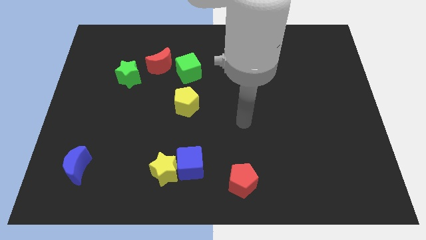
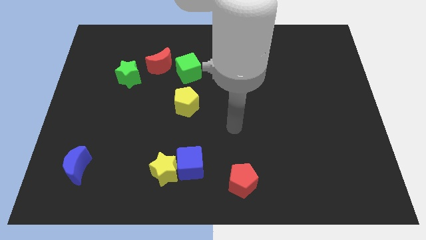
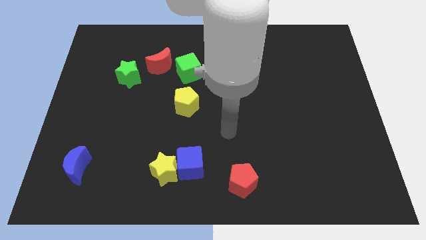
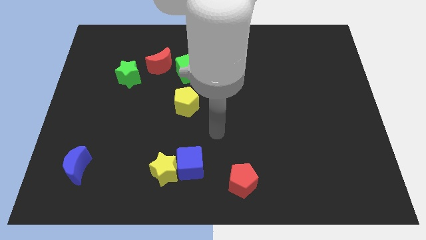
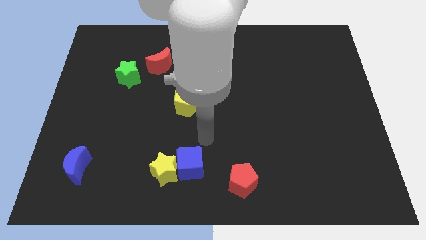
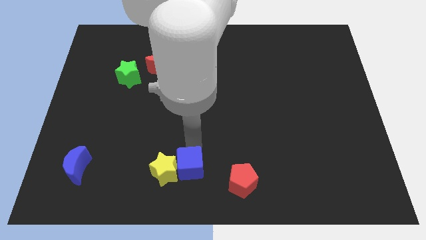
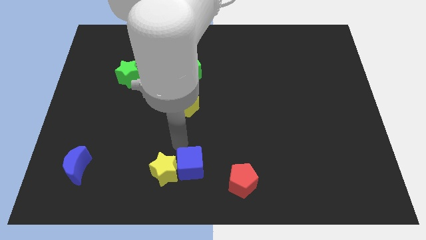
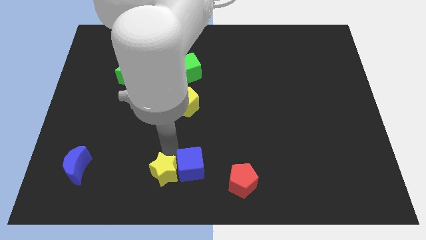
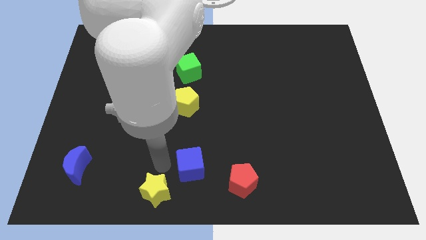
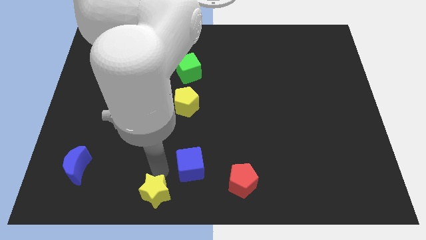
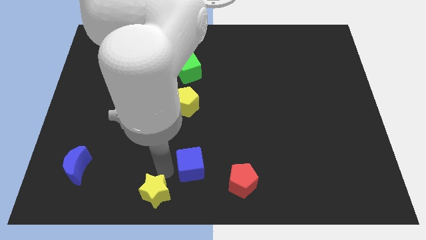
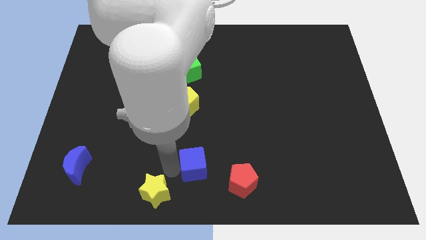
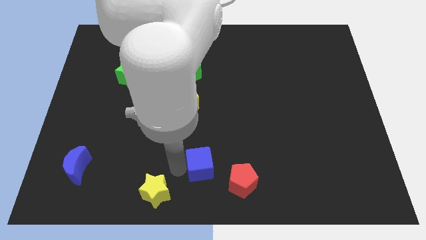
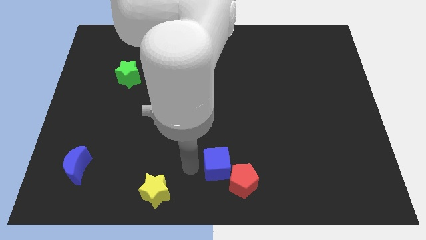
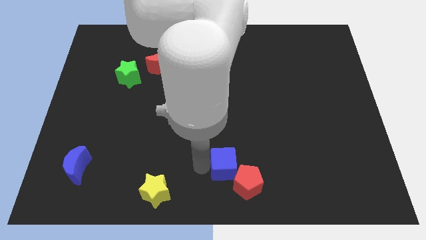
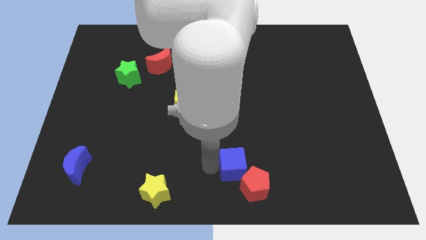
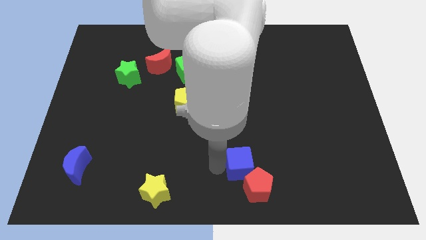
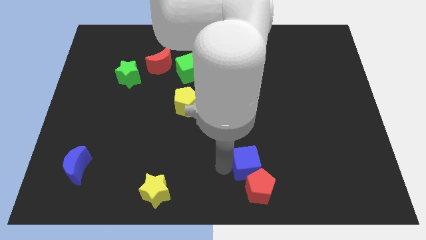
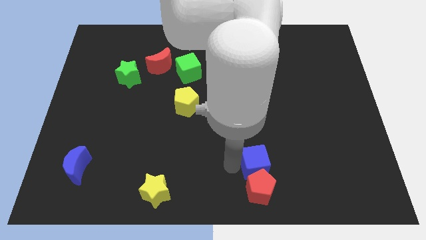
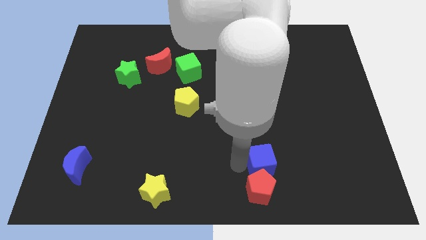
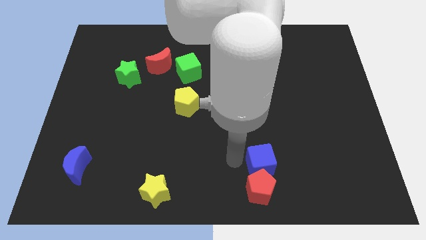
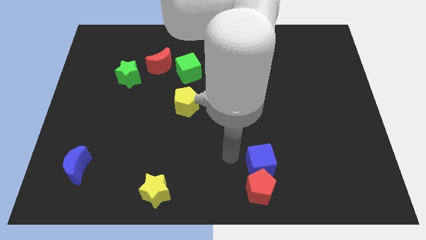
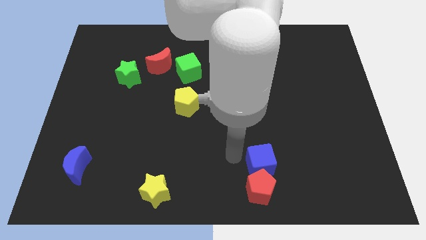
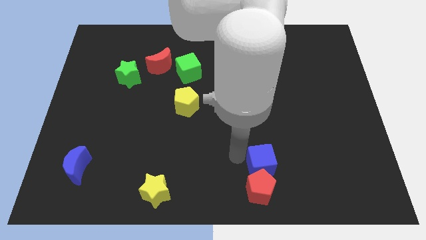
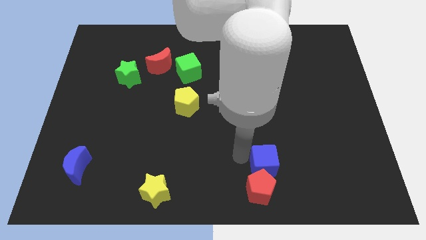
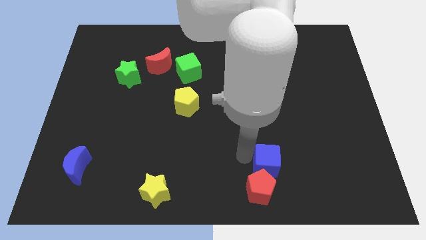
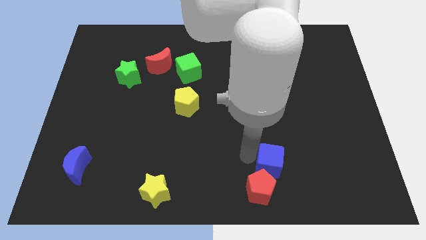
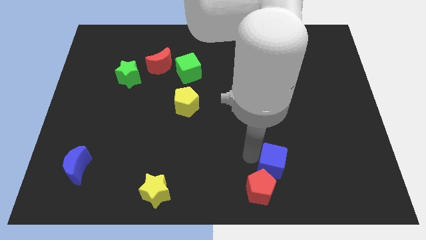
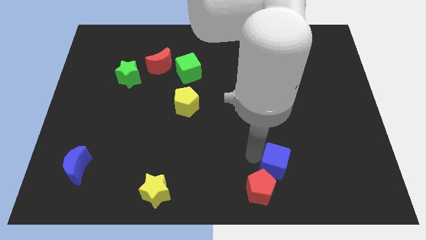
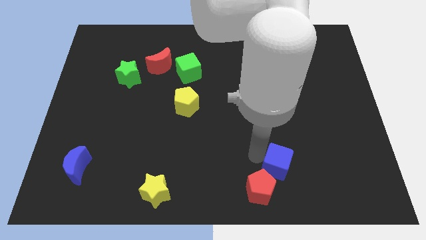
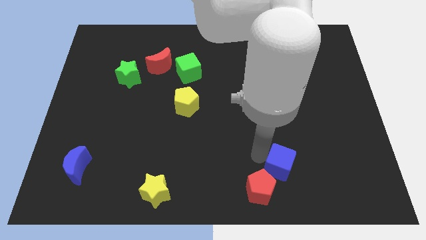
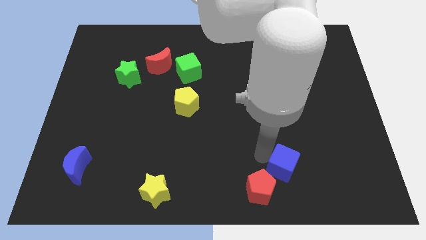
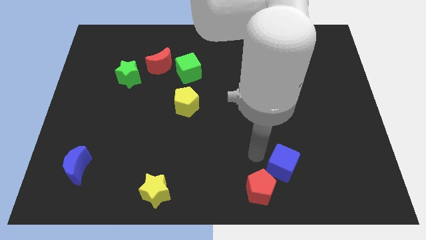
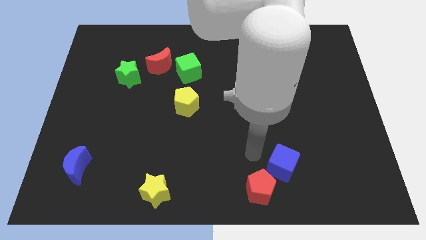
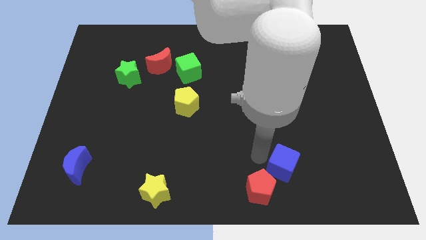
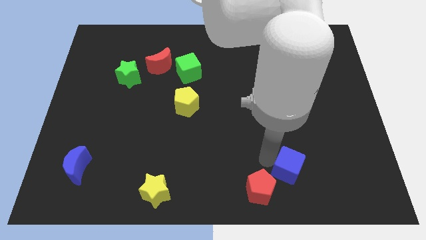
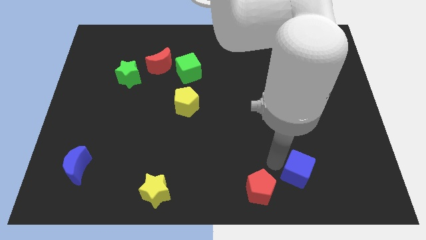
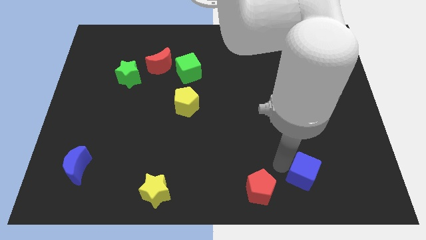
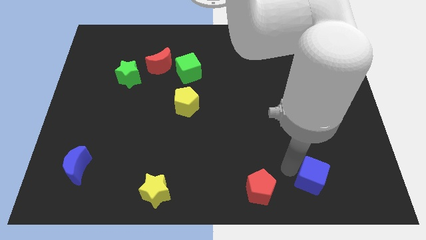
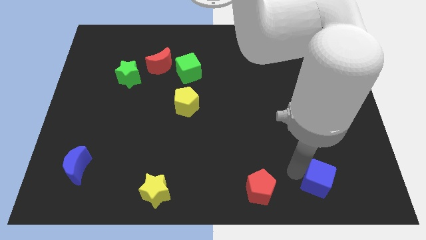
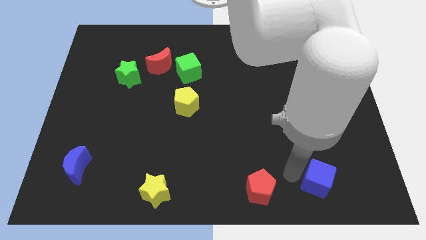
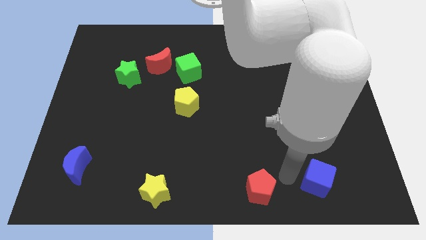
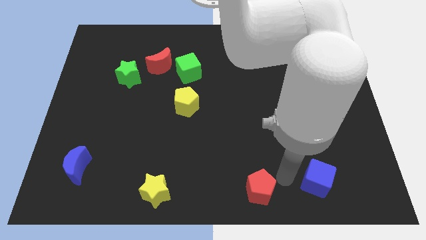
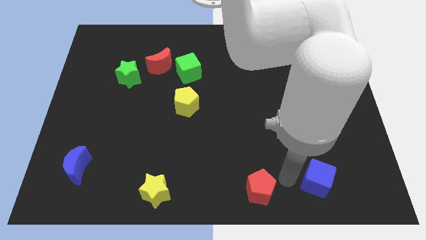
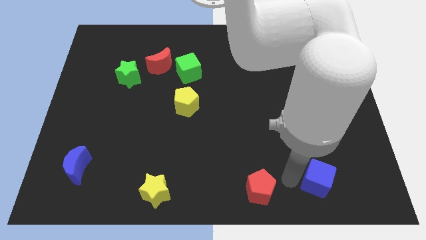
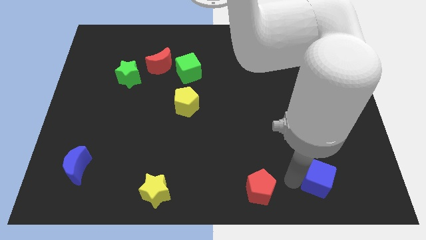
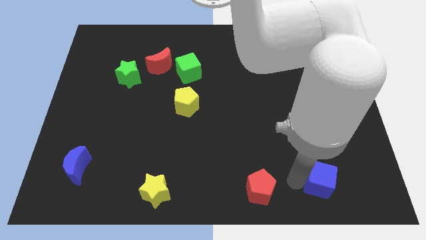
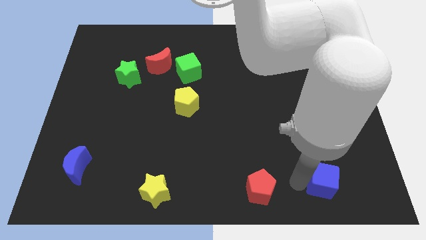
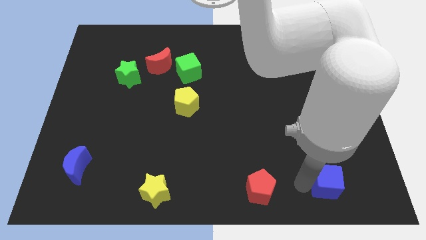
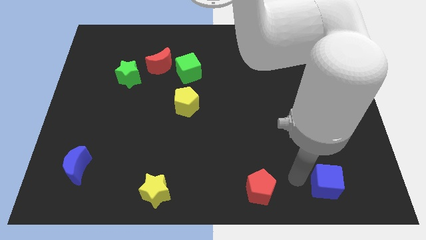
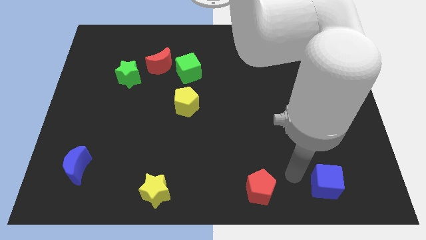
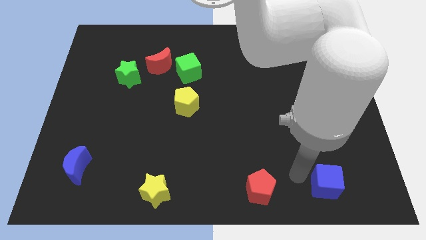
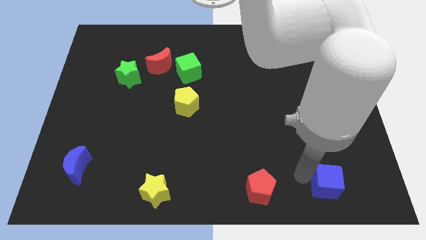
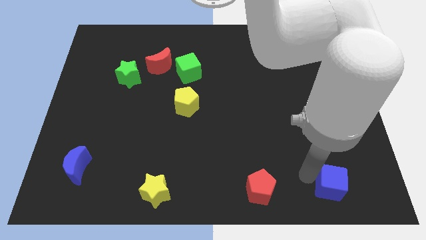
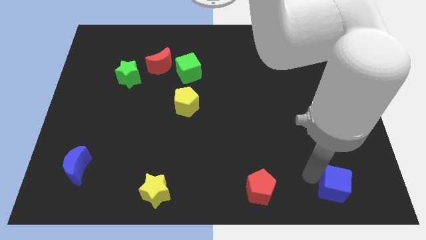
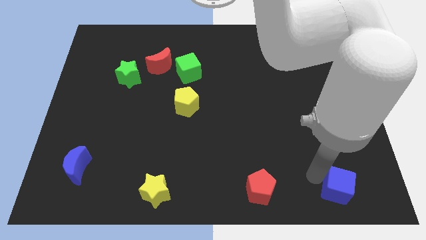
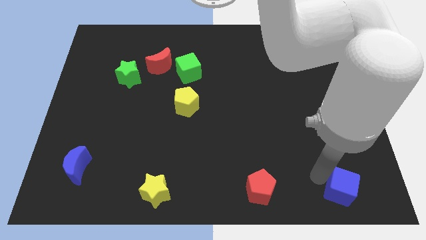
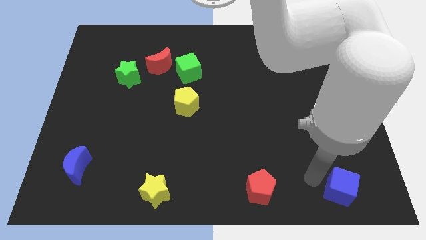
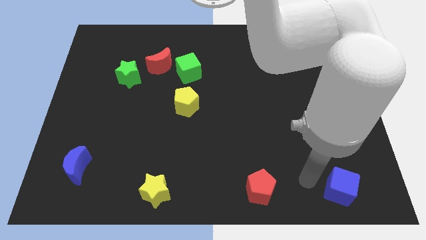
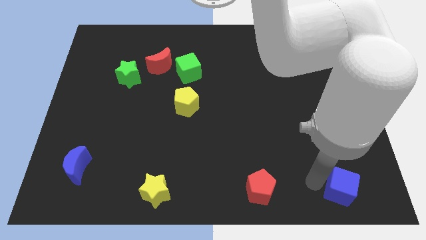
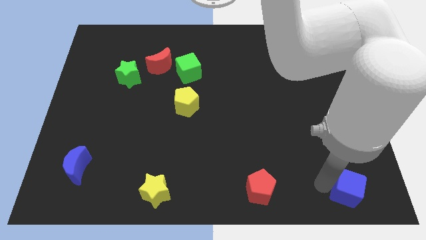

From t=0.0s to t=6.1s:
put the blue cube to the lower right corner
